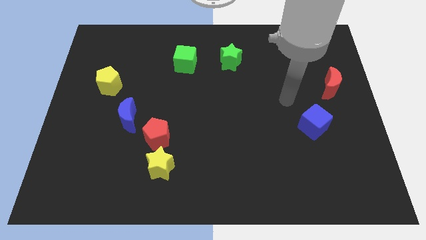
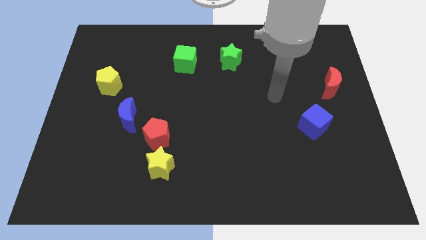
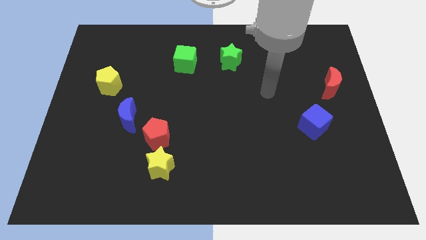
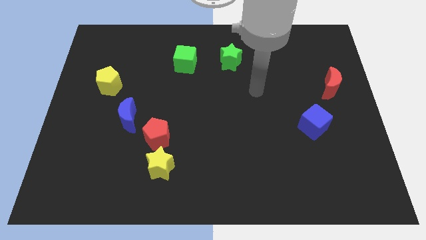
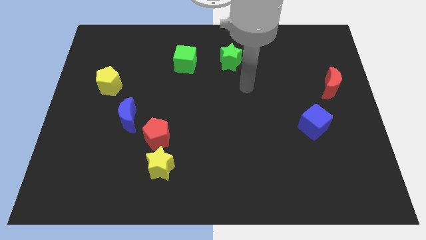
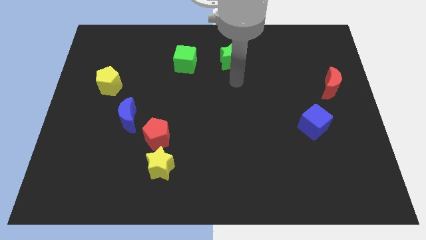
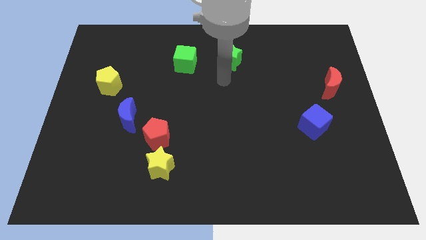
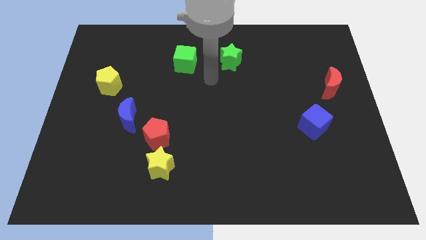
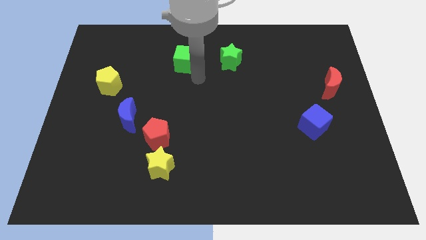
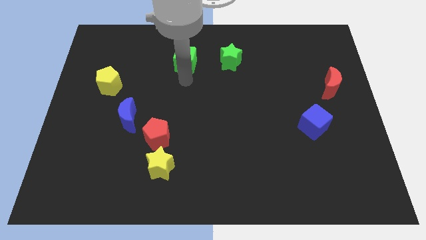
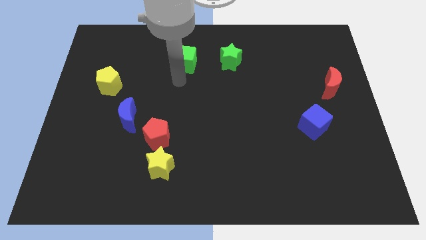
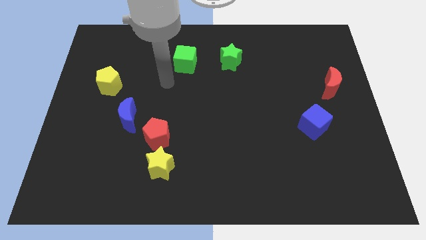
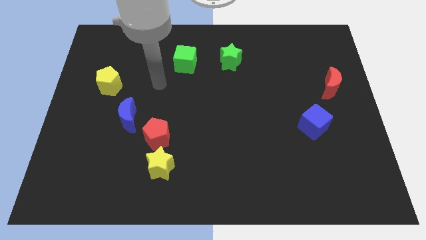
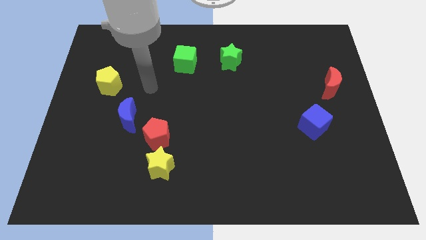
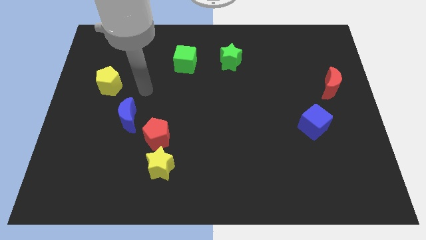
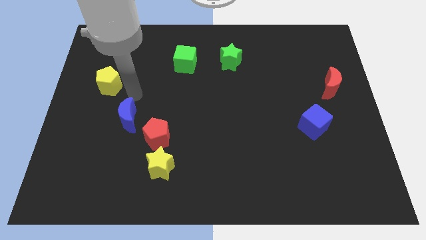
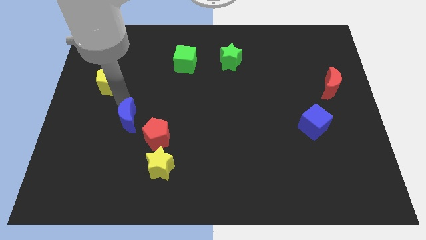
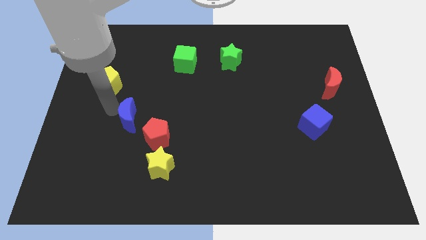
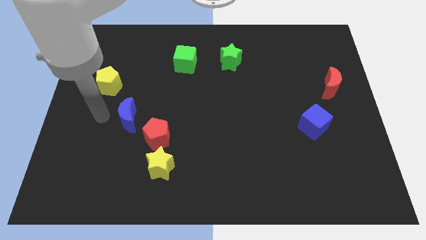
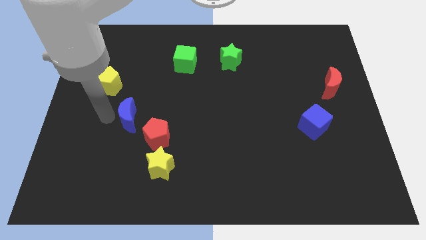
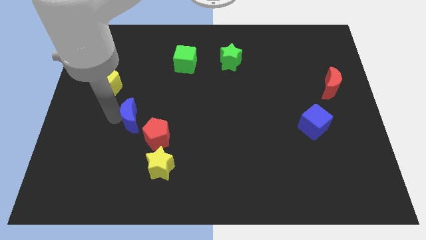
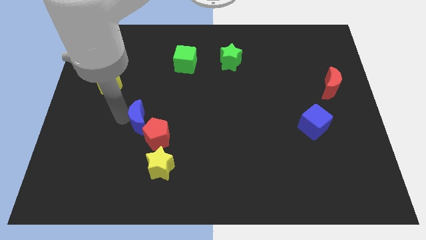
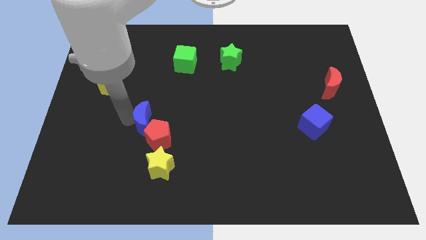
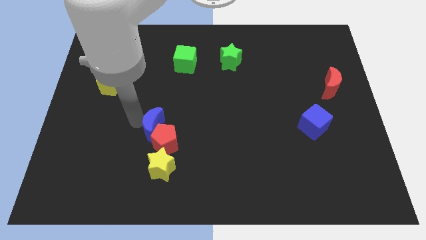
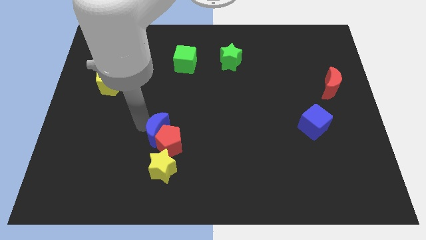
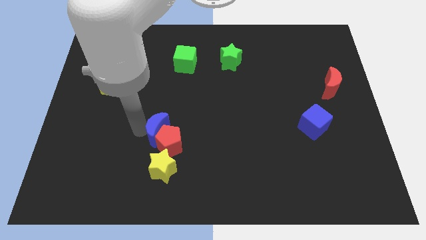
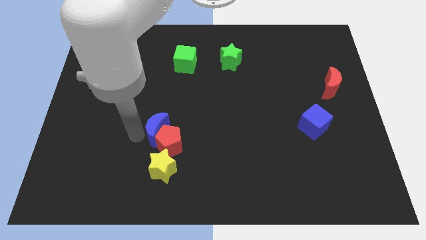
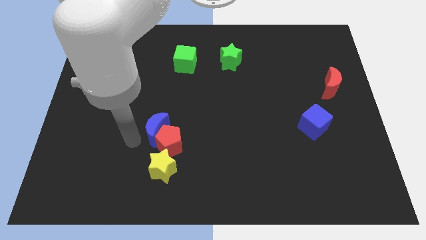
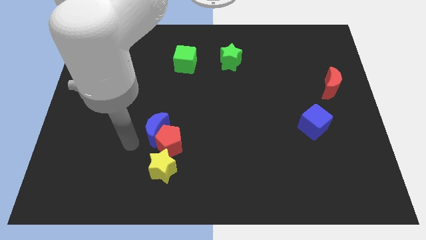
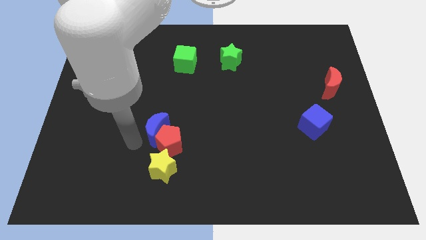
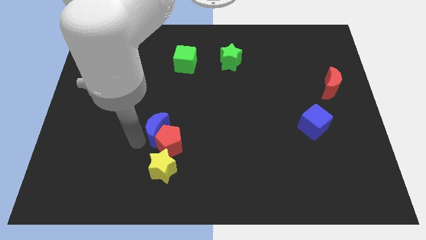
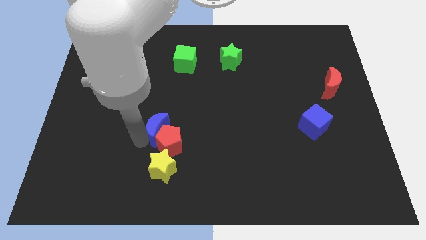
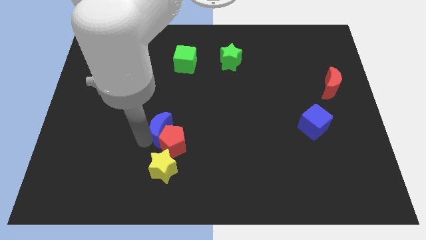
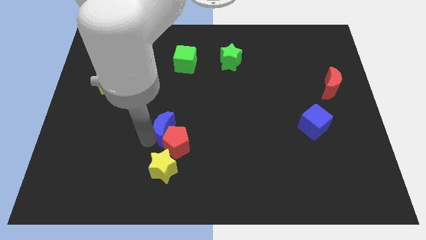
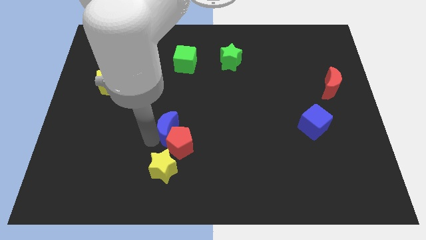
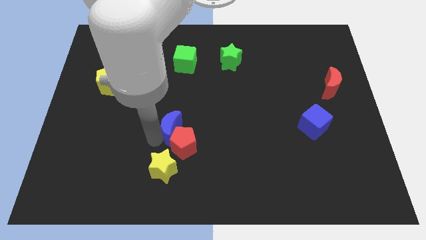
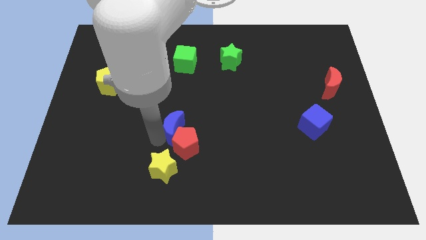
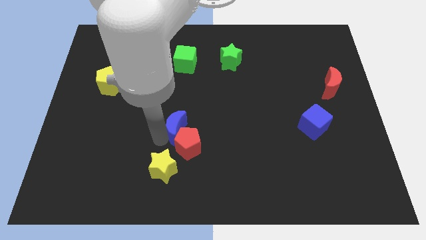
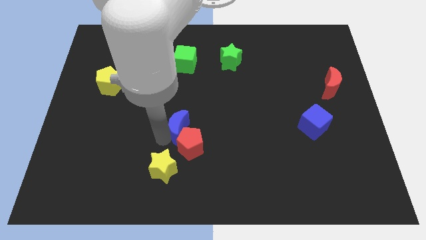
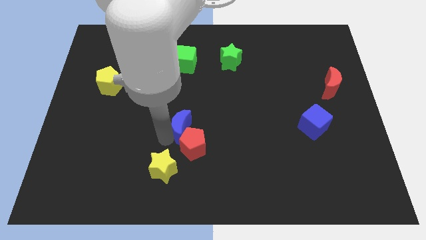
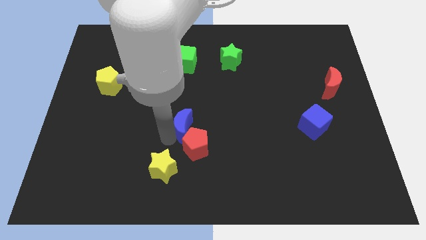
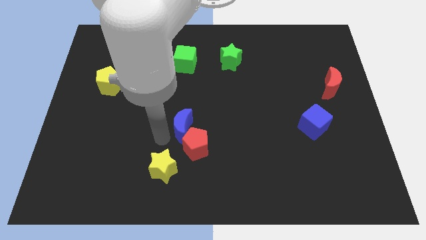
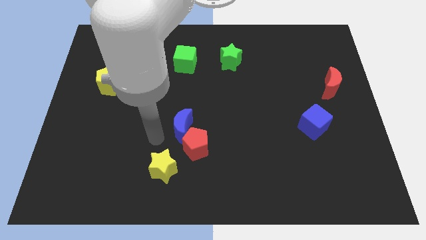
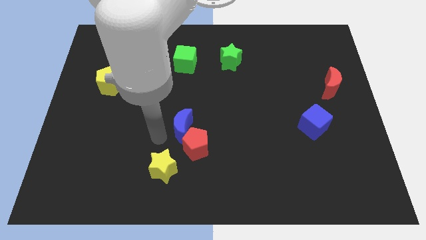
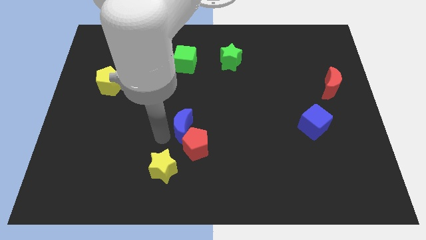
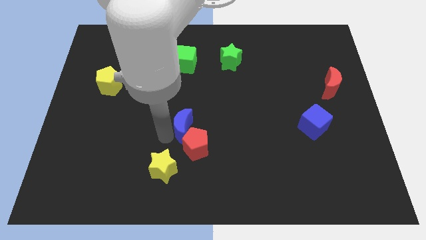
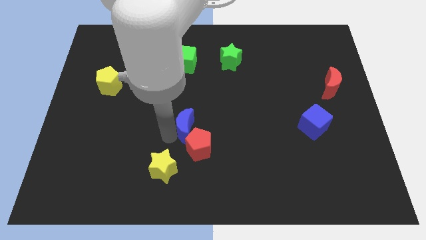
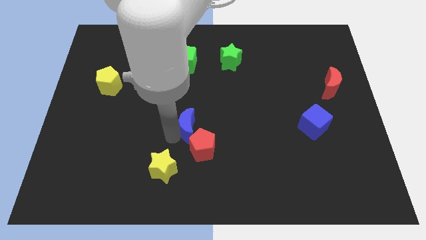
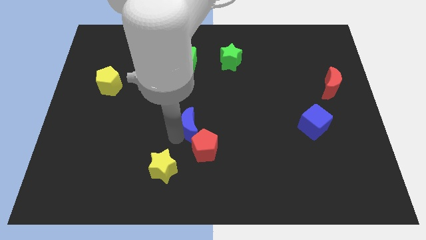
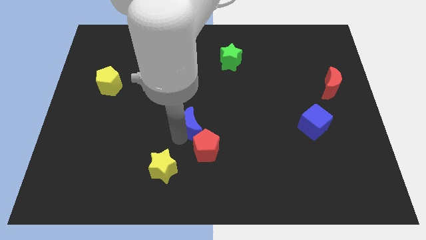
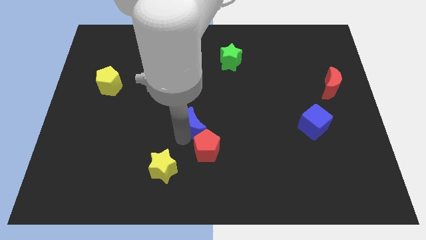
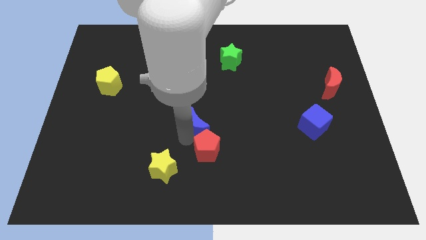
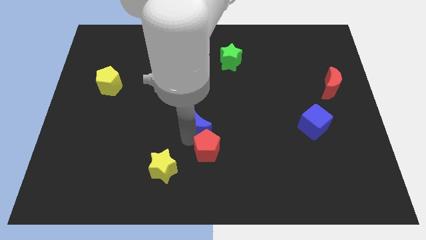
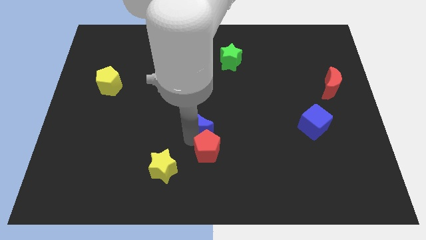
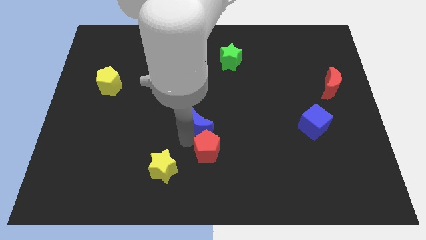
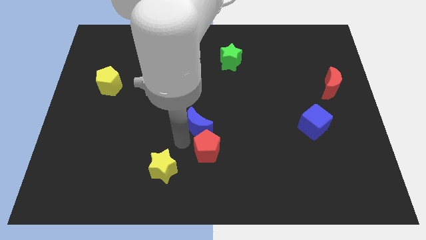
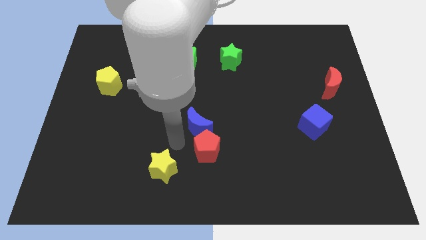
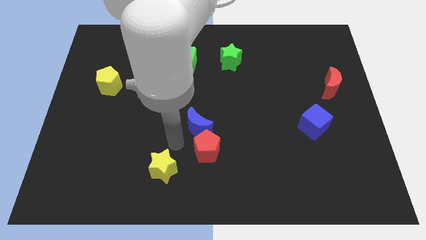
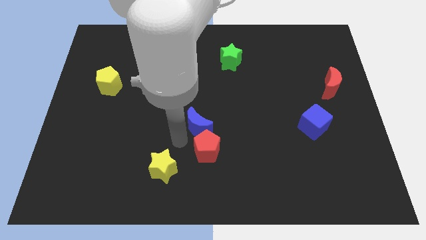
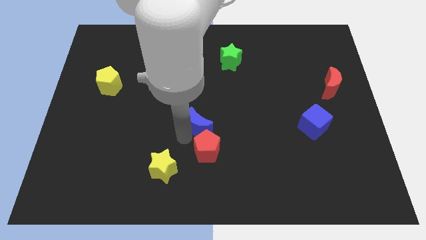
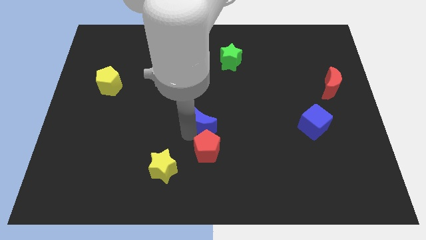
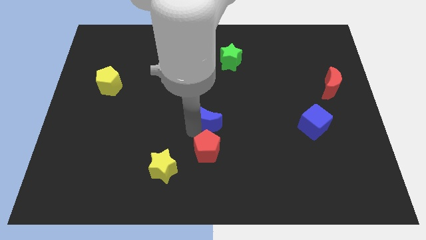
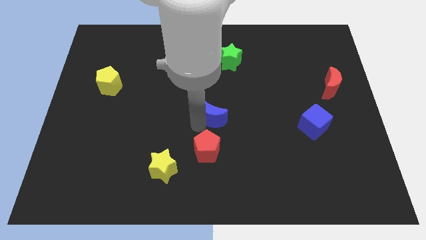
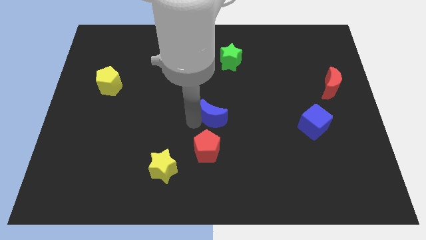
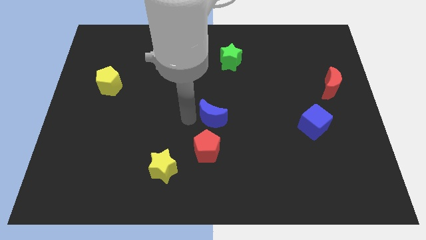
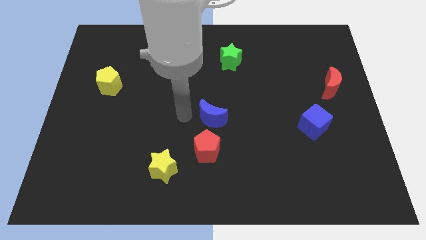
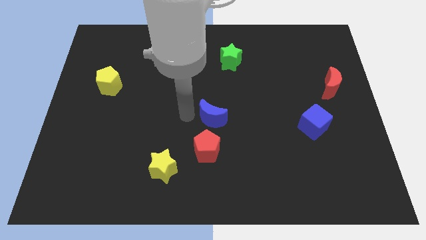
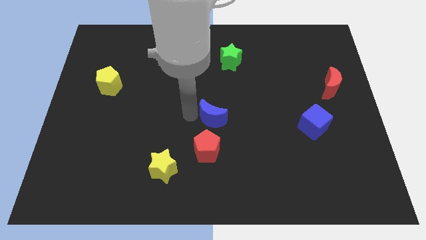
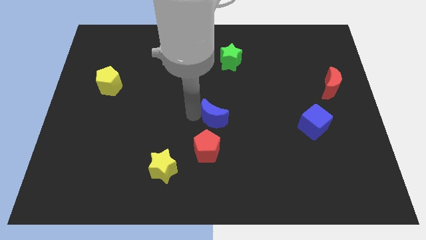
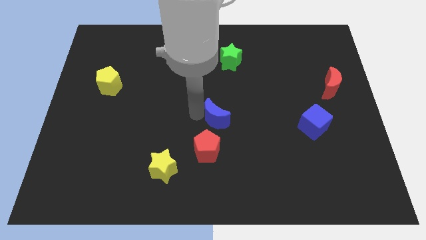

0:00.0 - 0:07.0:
slide the blue moon to the right

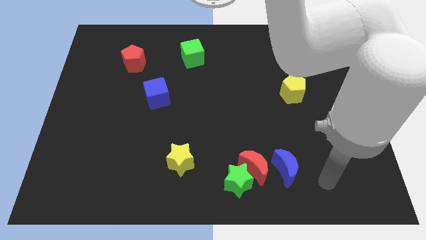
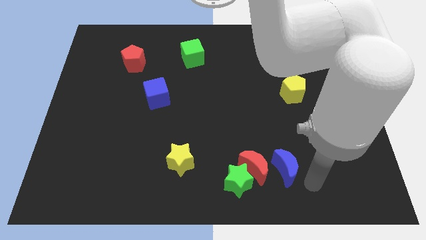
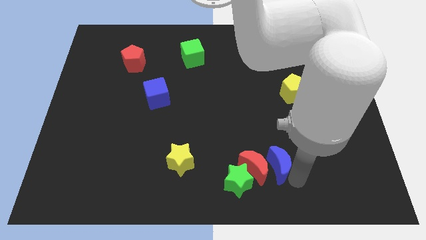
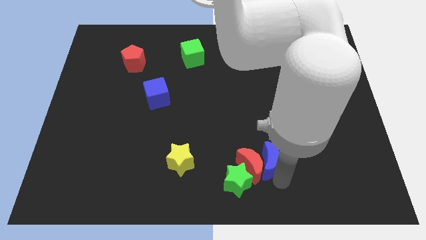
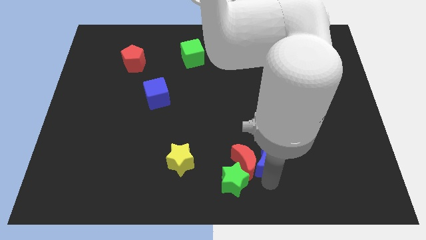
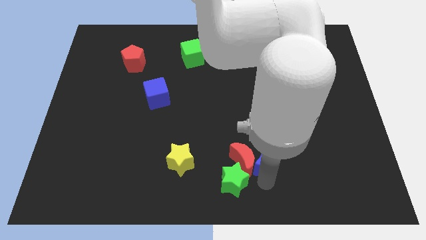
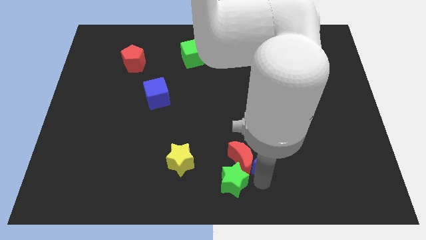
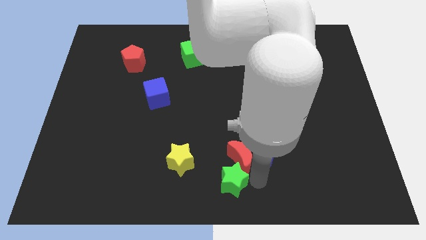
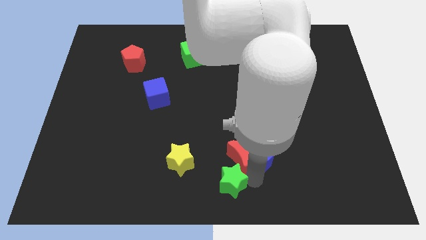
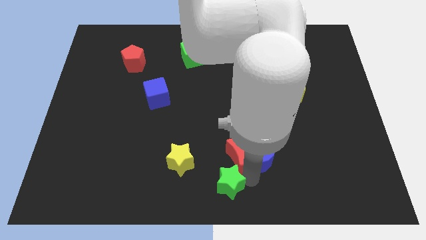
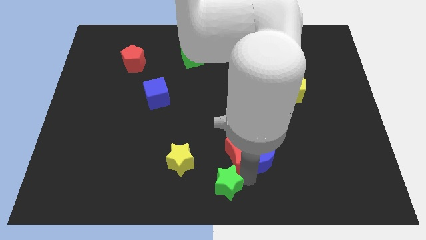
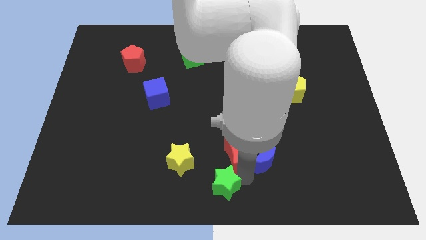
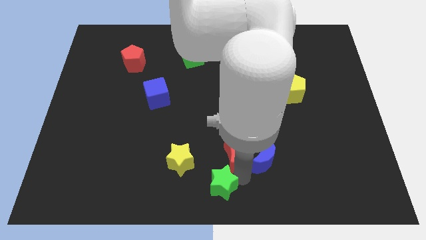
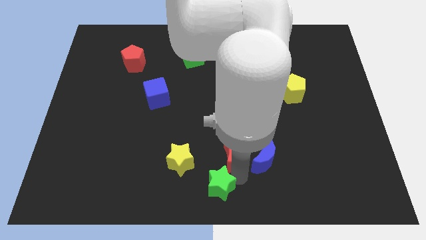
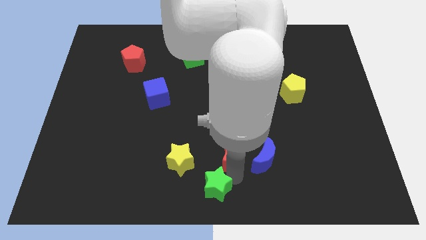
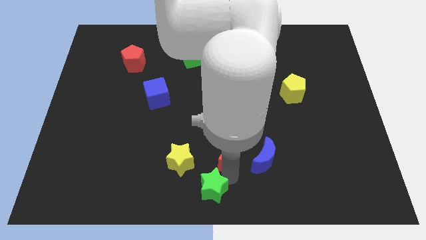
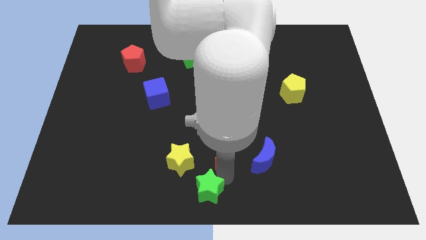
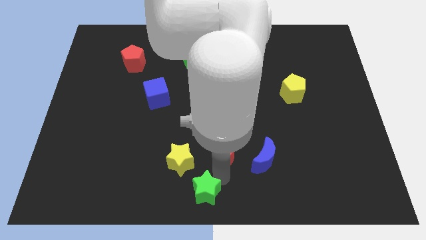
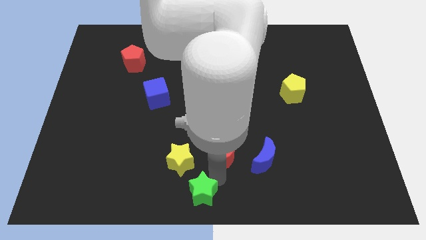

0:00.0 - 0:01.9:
slide the green star left a little bit
